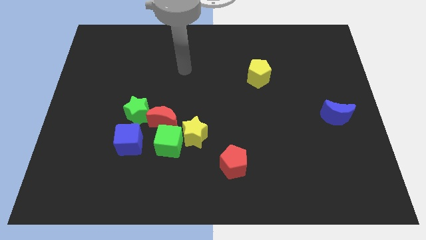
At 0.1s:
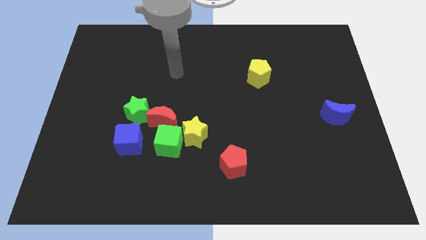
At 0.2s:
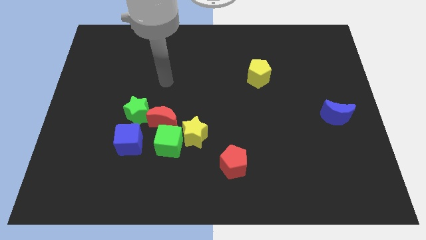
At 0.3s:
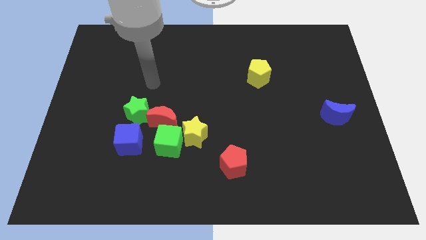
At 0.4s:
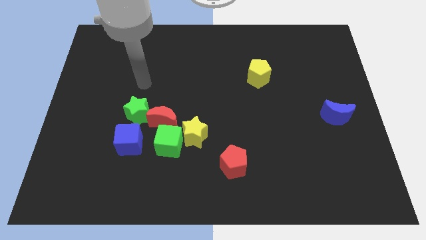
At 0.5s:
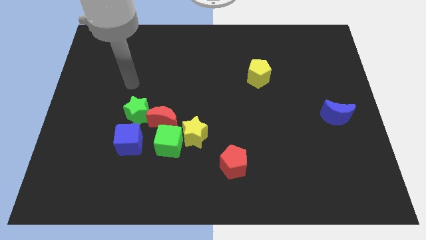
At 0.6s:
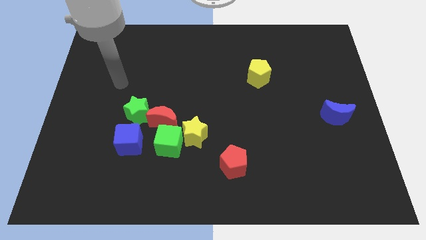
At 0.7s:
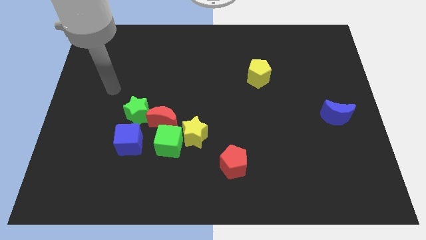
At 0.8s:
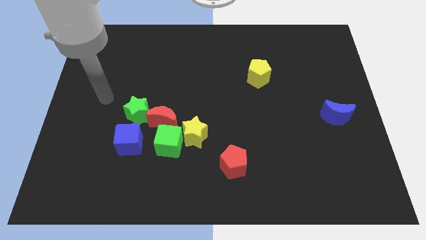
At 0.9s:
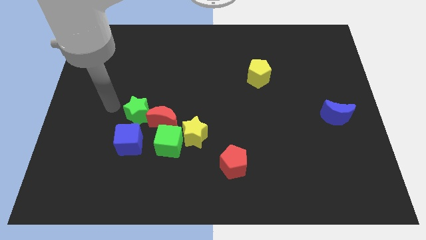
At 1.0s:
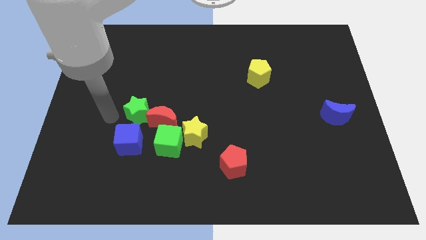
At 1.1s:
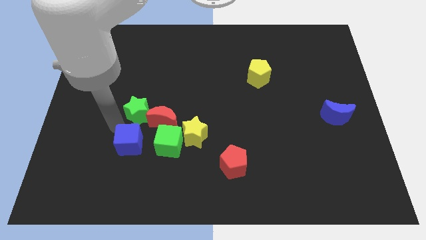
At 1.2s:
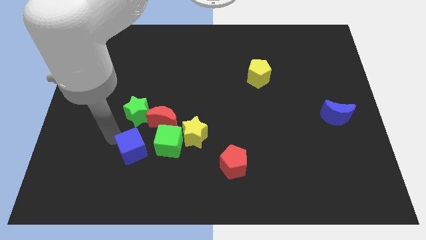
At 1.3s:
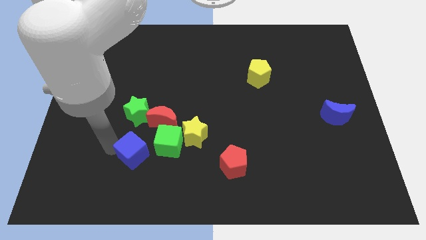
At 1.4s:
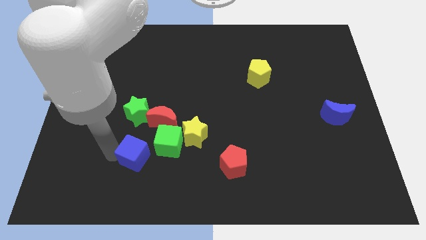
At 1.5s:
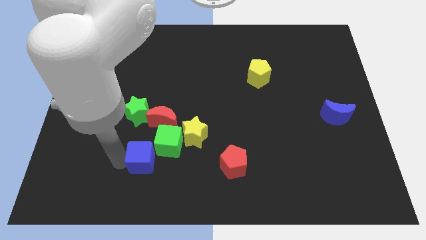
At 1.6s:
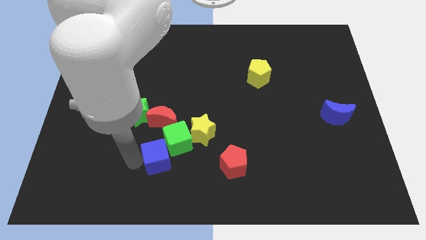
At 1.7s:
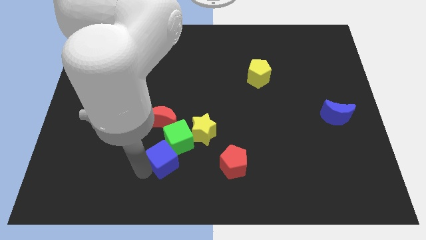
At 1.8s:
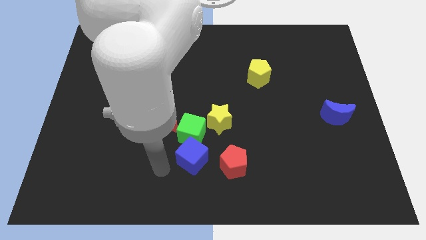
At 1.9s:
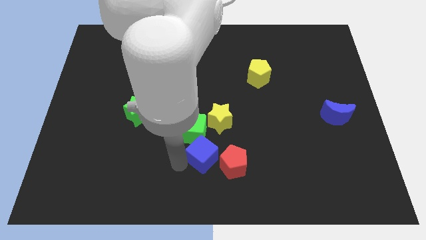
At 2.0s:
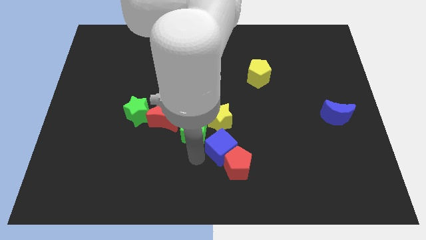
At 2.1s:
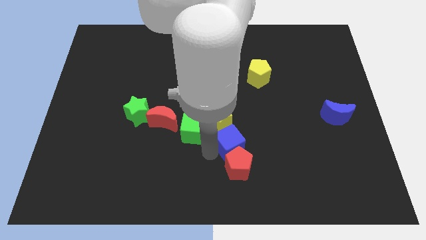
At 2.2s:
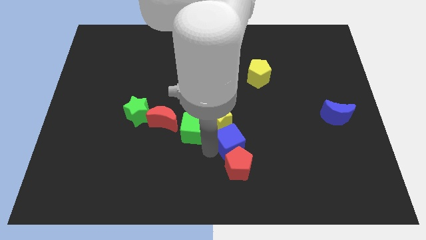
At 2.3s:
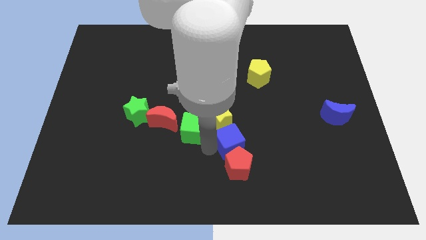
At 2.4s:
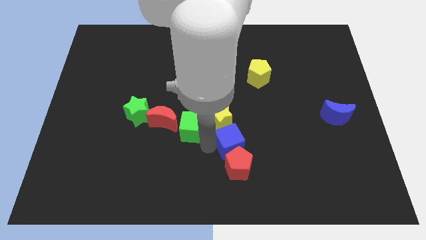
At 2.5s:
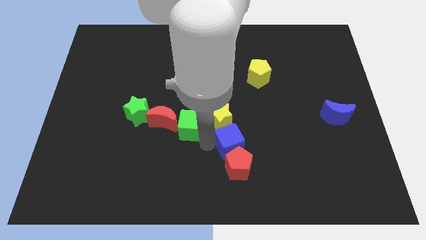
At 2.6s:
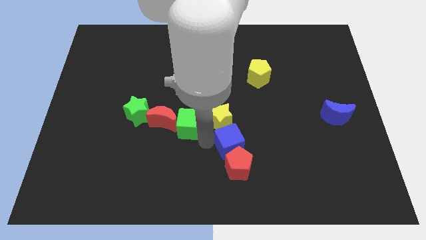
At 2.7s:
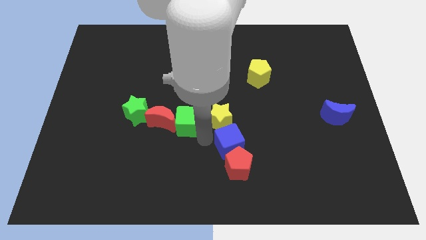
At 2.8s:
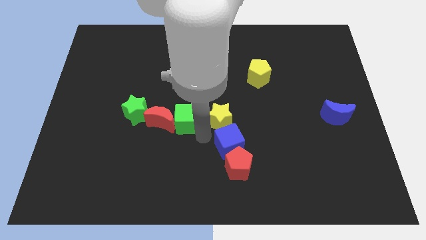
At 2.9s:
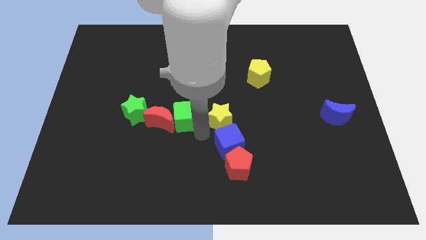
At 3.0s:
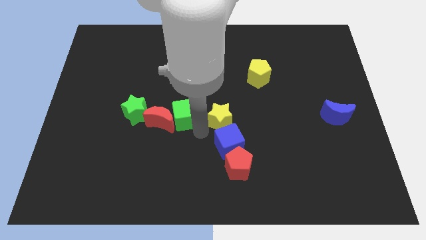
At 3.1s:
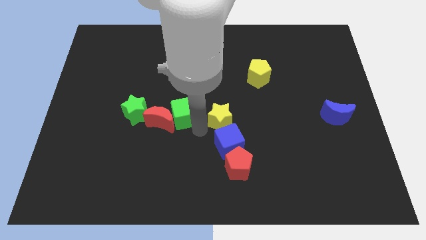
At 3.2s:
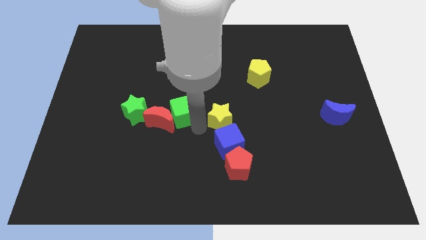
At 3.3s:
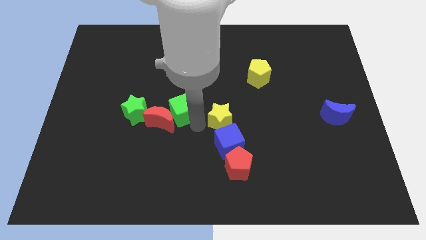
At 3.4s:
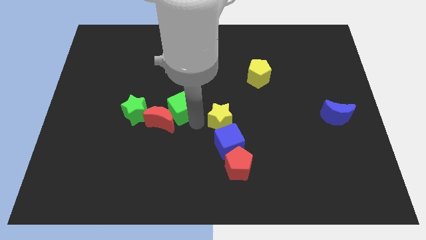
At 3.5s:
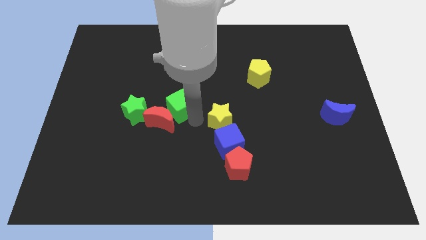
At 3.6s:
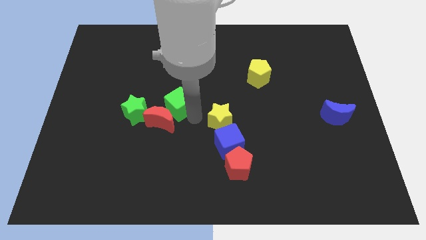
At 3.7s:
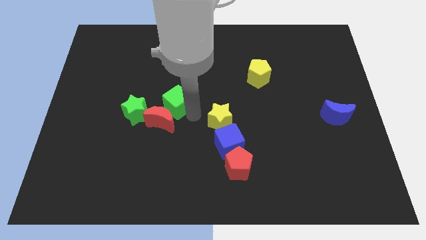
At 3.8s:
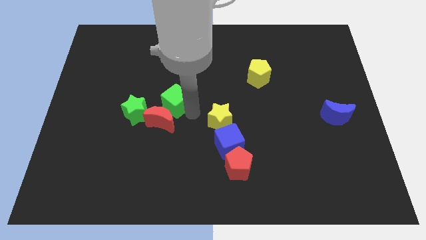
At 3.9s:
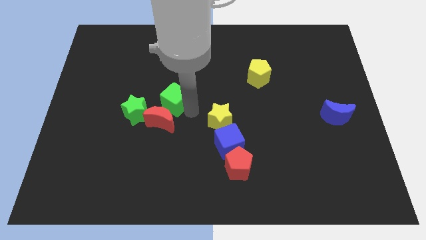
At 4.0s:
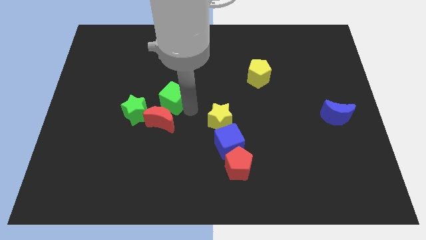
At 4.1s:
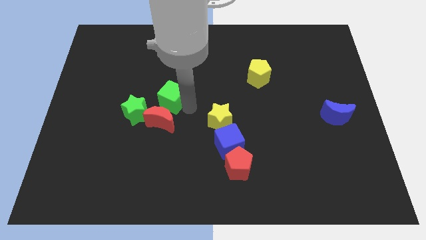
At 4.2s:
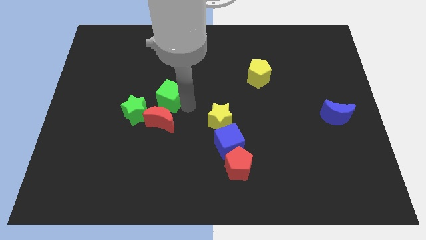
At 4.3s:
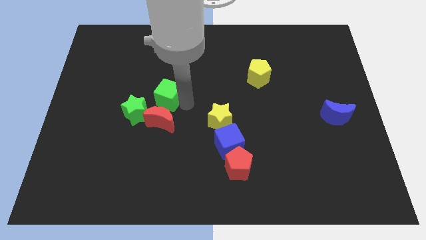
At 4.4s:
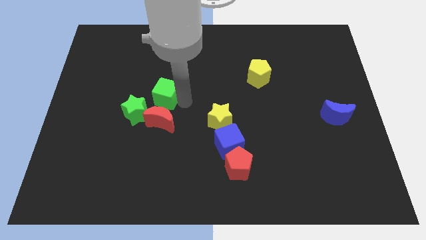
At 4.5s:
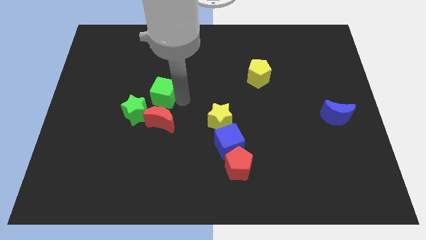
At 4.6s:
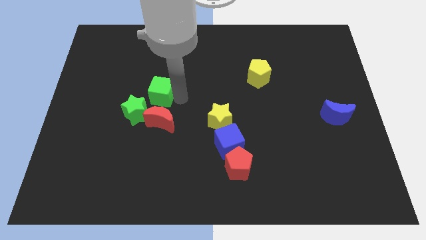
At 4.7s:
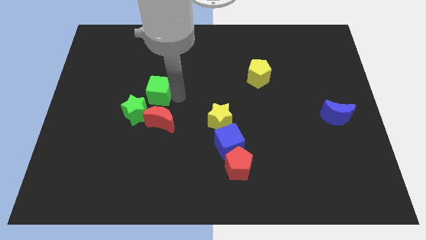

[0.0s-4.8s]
put the green cube to the top left side of the red moon

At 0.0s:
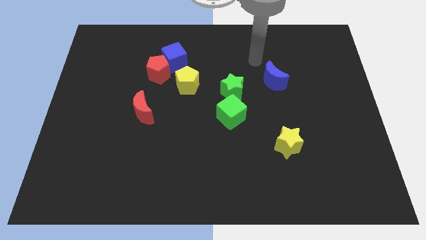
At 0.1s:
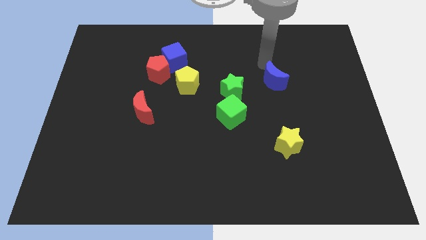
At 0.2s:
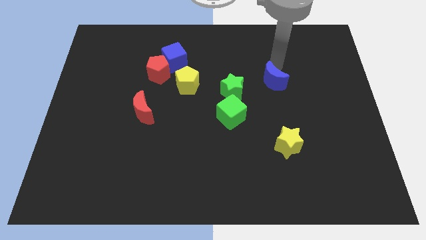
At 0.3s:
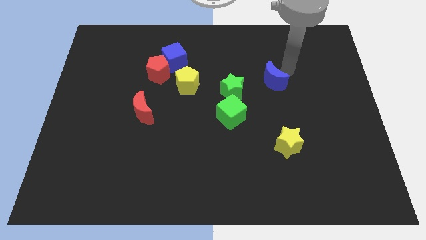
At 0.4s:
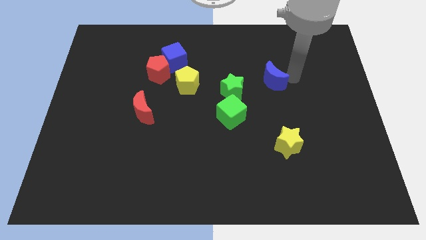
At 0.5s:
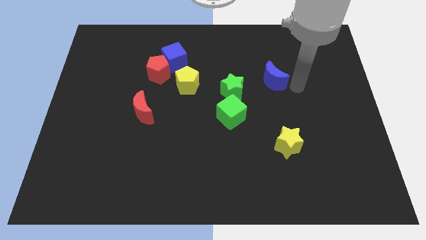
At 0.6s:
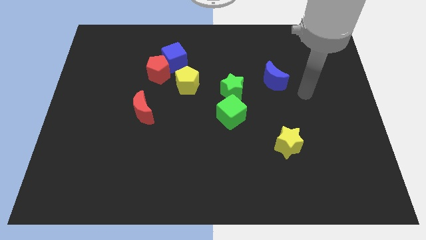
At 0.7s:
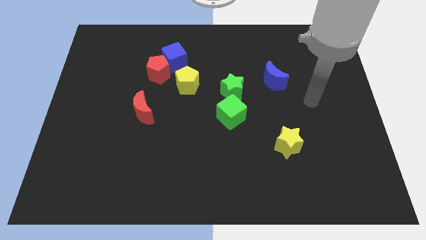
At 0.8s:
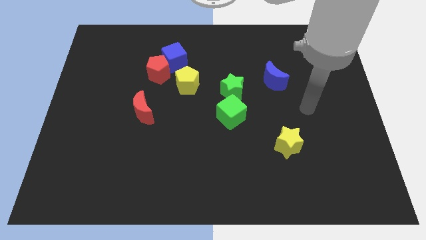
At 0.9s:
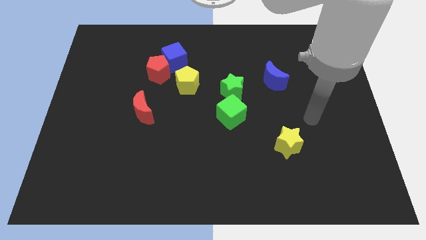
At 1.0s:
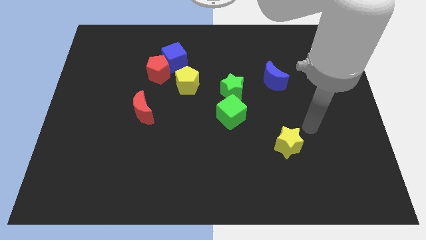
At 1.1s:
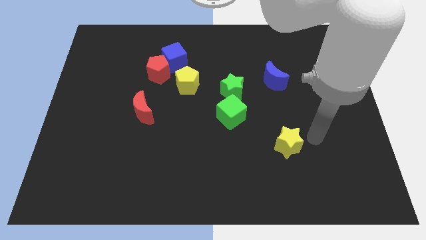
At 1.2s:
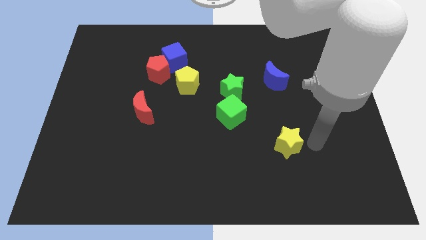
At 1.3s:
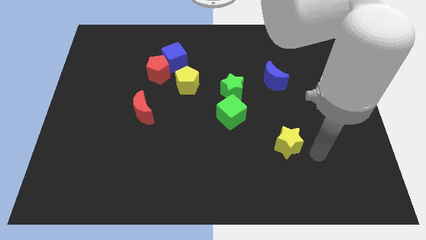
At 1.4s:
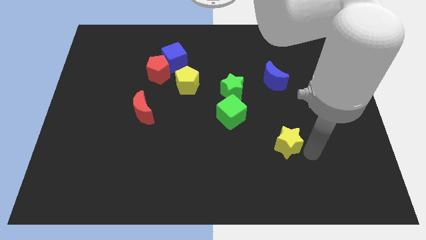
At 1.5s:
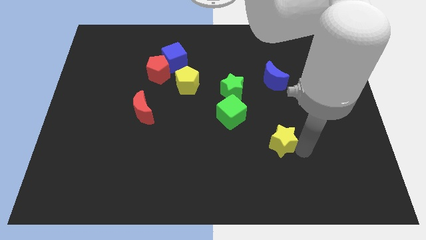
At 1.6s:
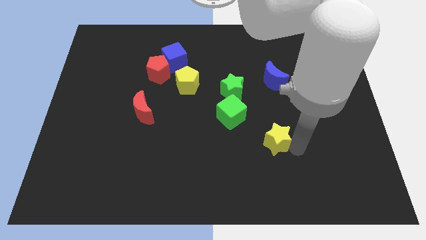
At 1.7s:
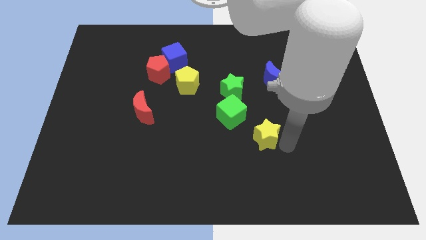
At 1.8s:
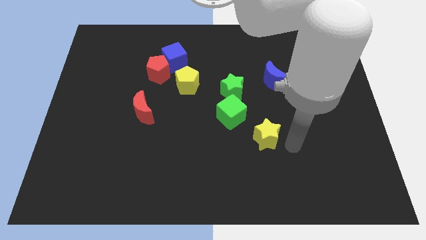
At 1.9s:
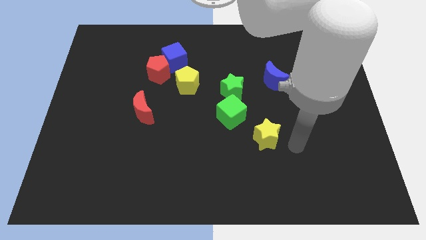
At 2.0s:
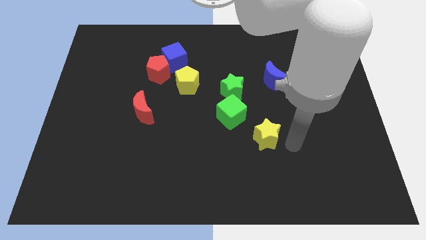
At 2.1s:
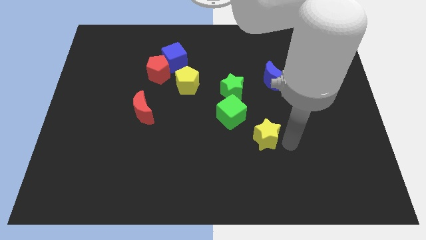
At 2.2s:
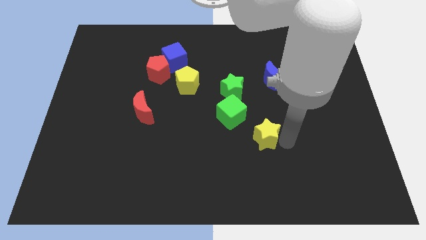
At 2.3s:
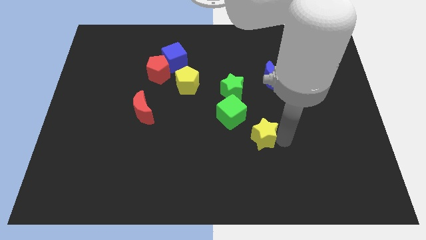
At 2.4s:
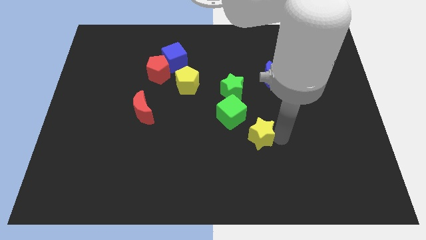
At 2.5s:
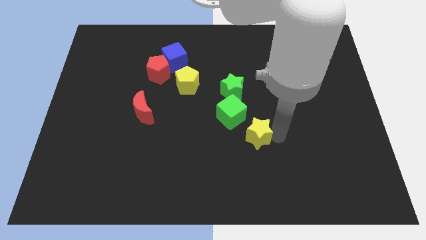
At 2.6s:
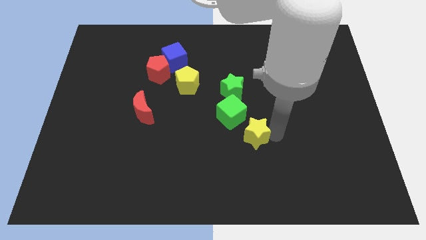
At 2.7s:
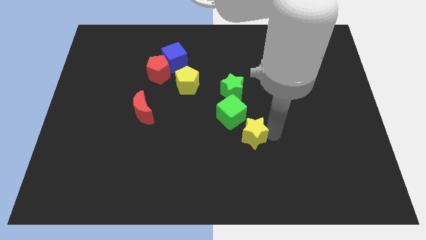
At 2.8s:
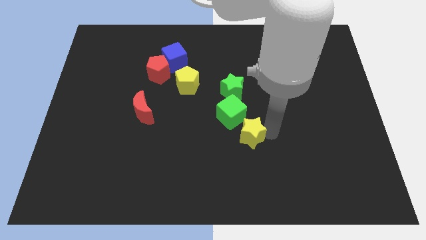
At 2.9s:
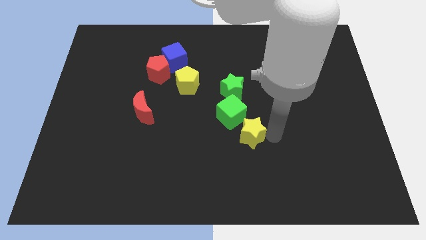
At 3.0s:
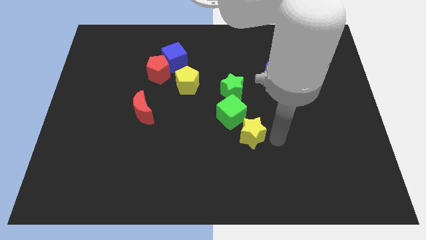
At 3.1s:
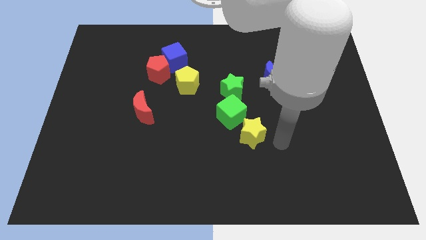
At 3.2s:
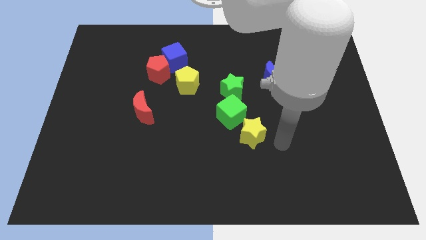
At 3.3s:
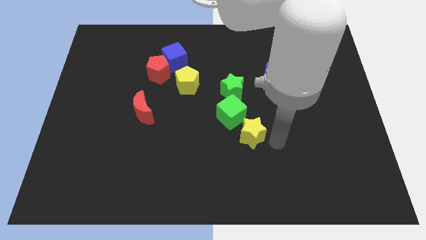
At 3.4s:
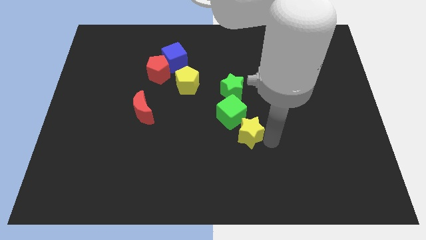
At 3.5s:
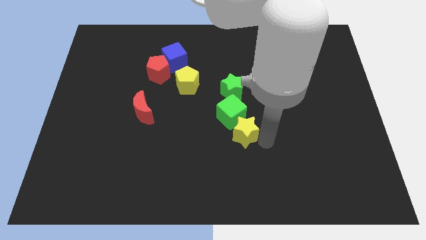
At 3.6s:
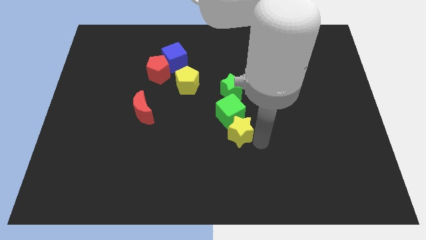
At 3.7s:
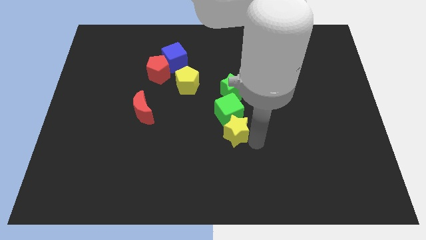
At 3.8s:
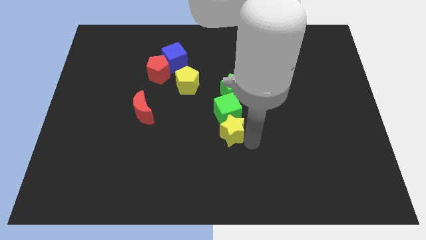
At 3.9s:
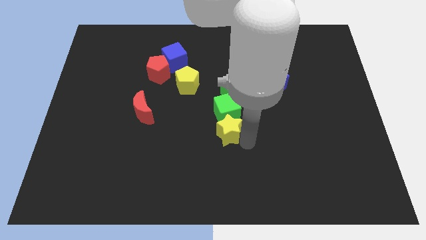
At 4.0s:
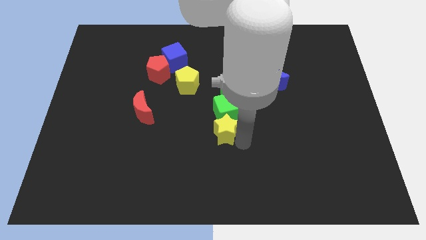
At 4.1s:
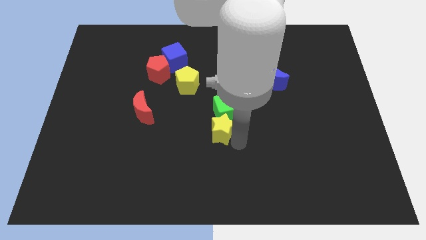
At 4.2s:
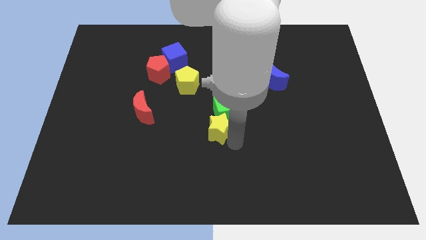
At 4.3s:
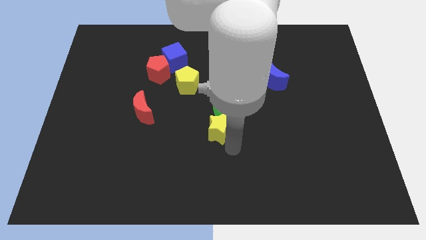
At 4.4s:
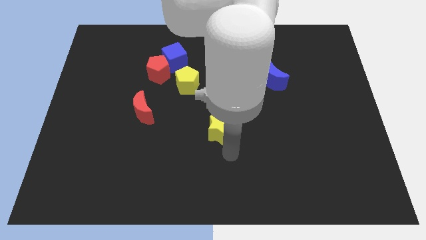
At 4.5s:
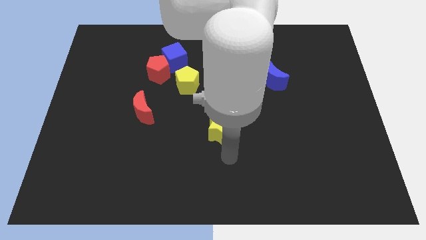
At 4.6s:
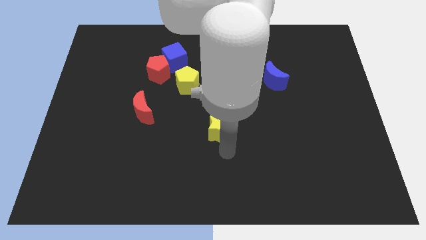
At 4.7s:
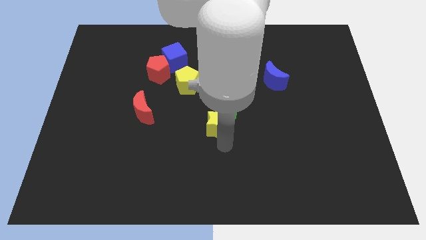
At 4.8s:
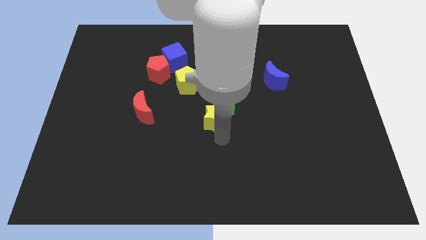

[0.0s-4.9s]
move the yellow star to the bottom left of the green star
